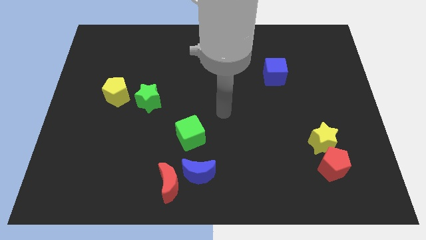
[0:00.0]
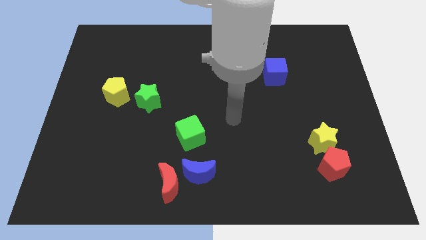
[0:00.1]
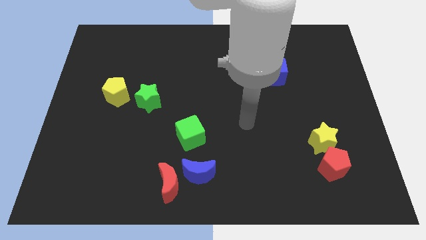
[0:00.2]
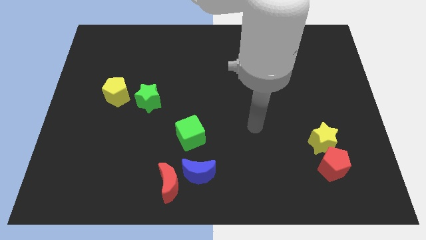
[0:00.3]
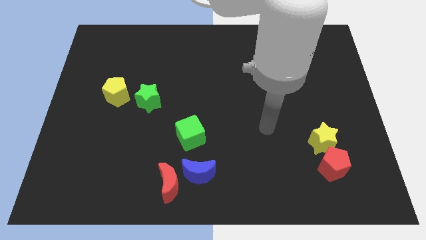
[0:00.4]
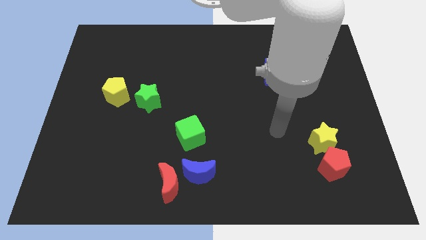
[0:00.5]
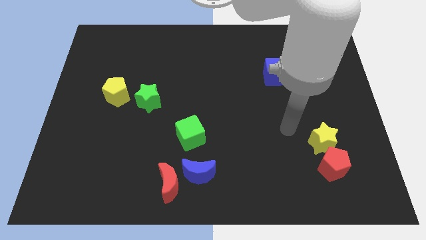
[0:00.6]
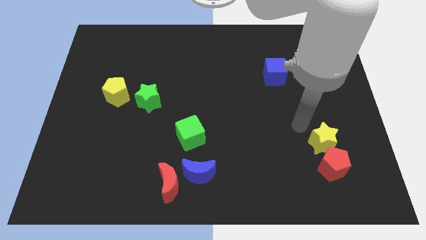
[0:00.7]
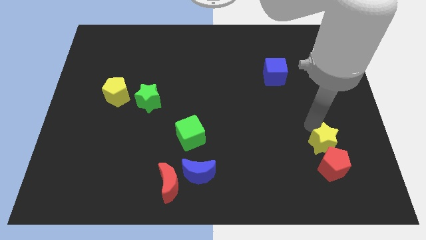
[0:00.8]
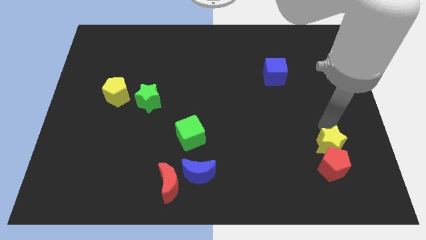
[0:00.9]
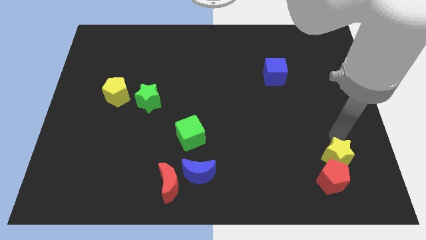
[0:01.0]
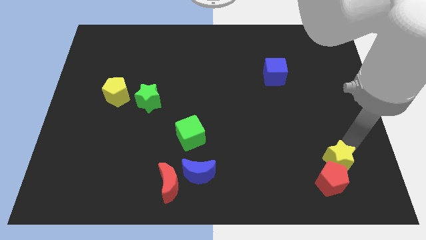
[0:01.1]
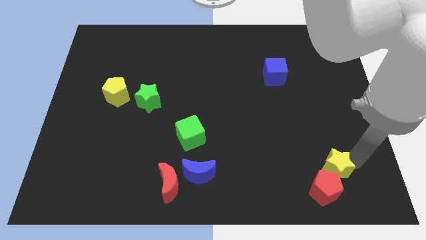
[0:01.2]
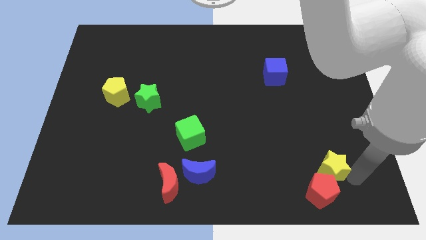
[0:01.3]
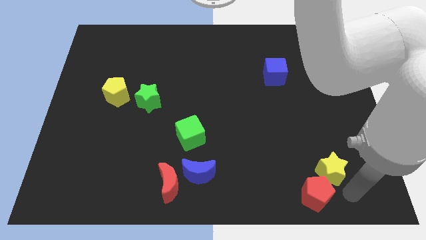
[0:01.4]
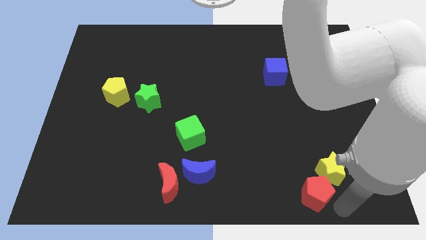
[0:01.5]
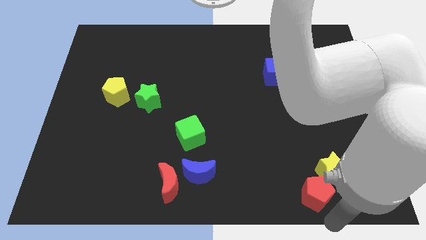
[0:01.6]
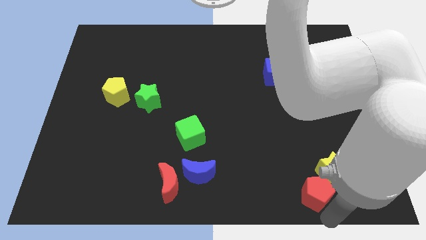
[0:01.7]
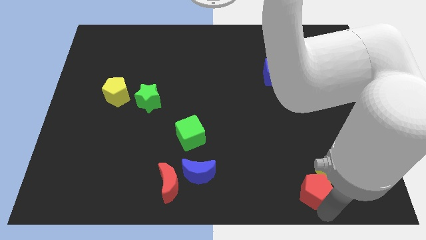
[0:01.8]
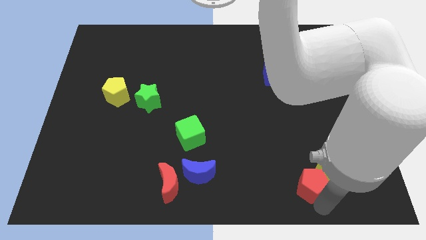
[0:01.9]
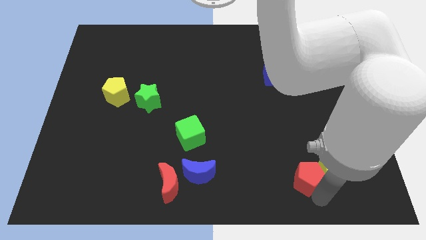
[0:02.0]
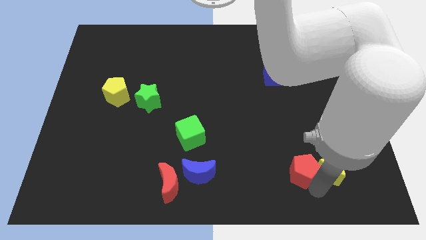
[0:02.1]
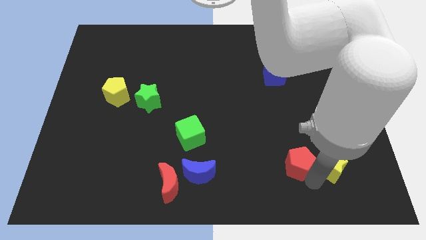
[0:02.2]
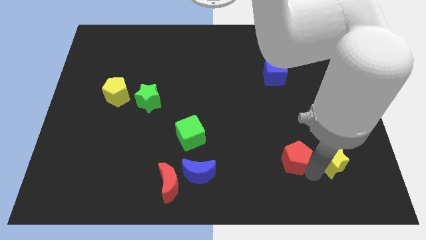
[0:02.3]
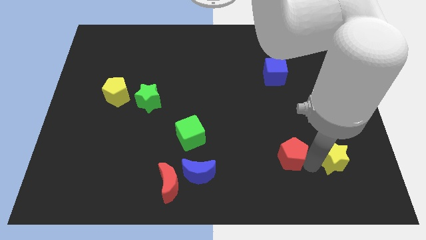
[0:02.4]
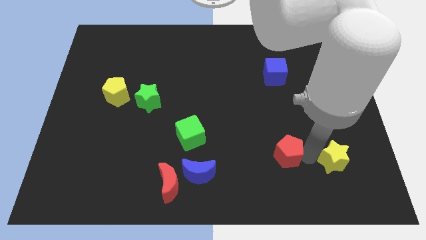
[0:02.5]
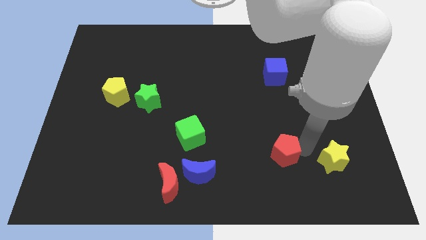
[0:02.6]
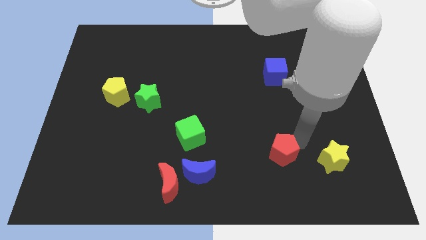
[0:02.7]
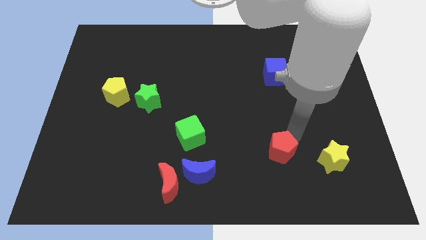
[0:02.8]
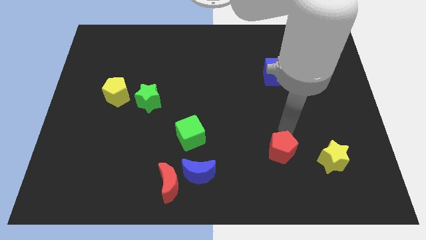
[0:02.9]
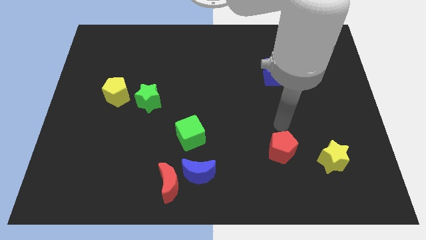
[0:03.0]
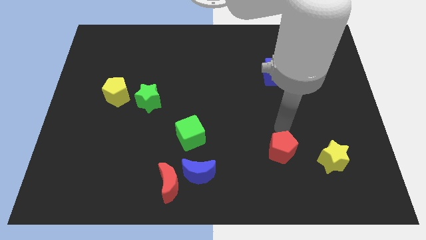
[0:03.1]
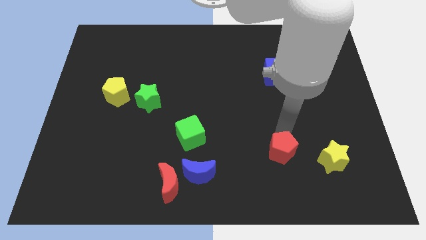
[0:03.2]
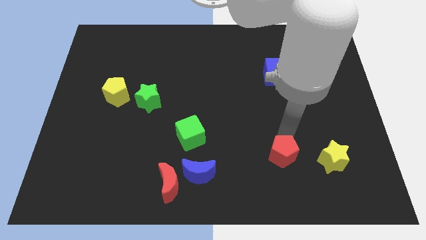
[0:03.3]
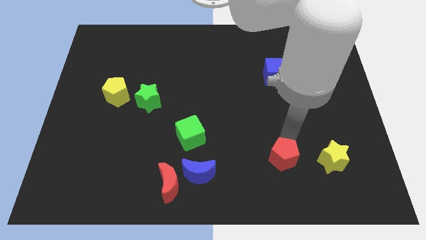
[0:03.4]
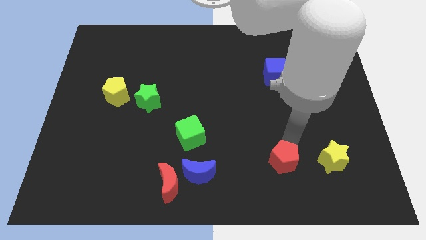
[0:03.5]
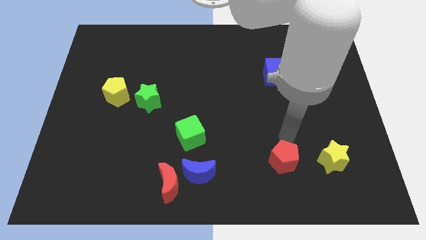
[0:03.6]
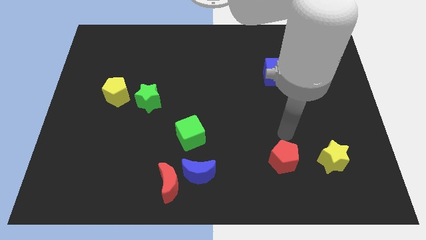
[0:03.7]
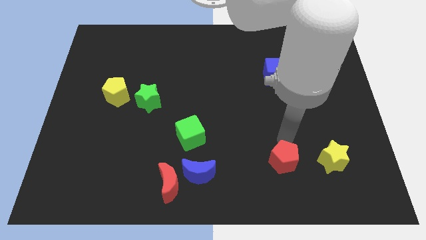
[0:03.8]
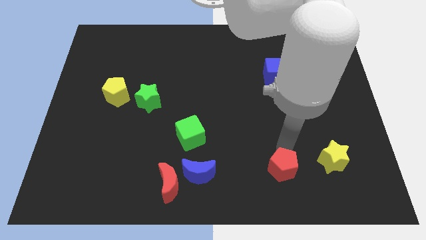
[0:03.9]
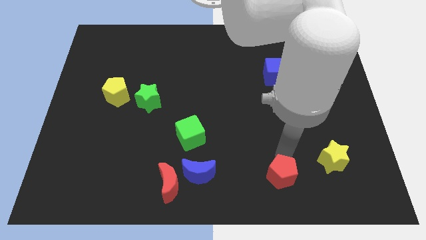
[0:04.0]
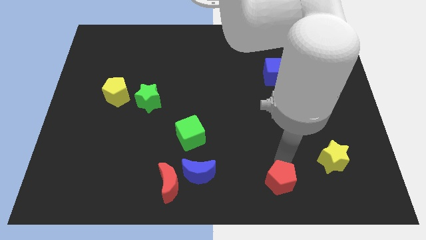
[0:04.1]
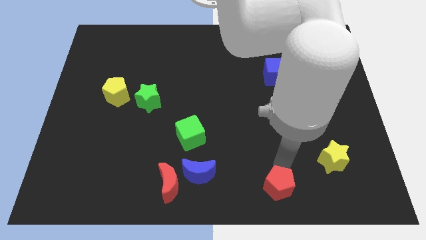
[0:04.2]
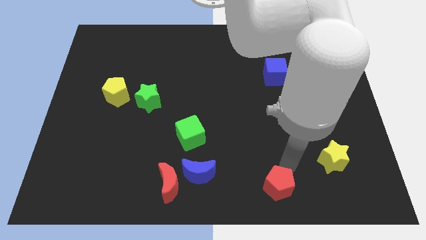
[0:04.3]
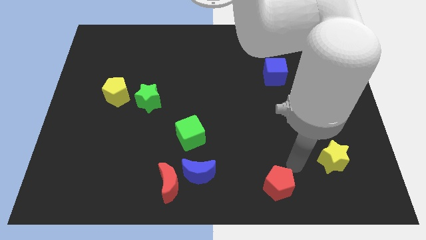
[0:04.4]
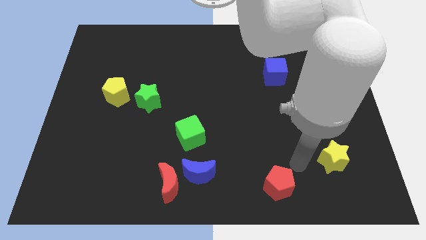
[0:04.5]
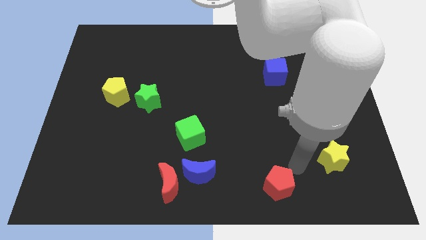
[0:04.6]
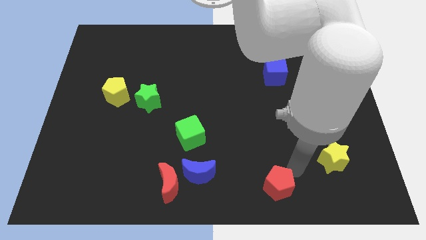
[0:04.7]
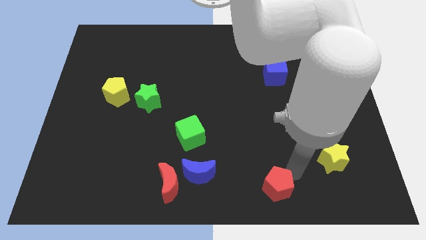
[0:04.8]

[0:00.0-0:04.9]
put the red pentagon to the bottom side

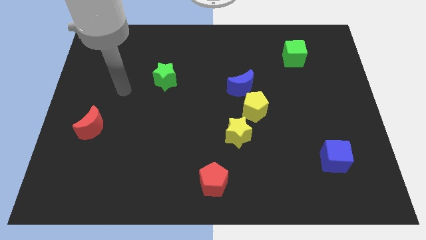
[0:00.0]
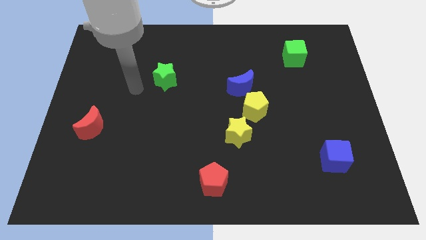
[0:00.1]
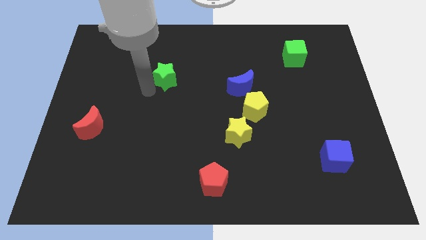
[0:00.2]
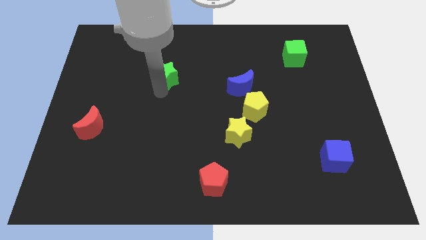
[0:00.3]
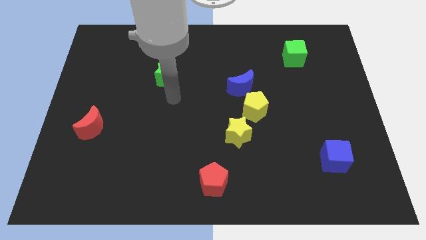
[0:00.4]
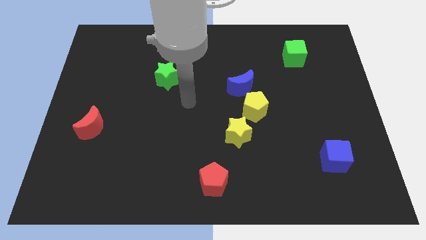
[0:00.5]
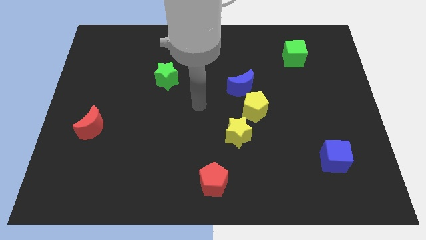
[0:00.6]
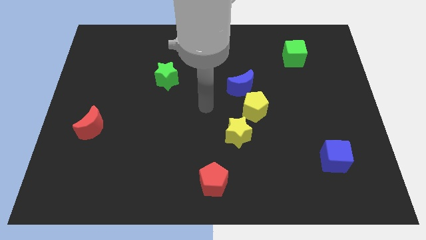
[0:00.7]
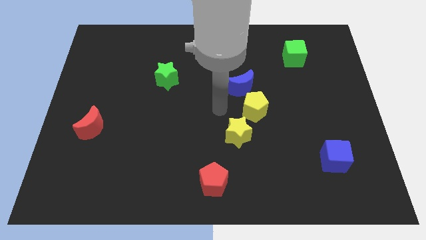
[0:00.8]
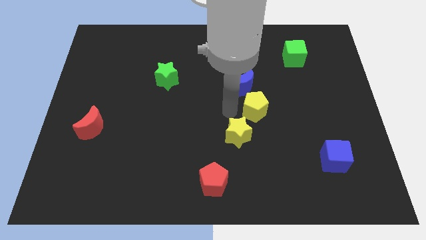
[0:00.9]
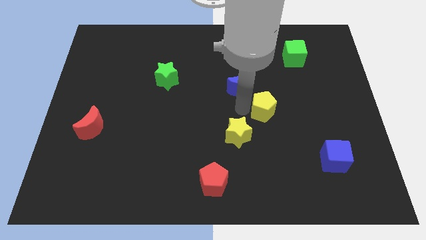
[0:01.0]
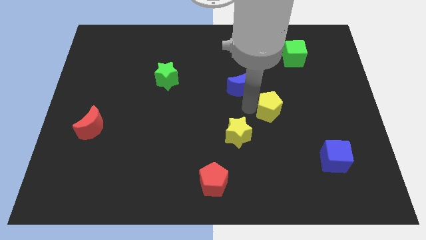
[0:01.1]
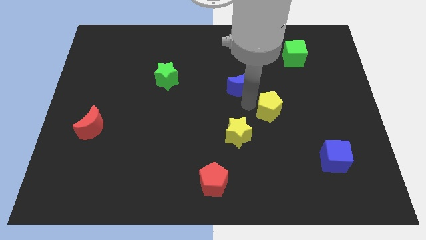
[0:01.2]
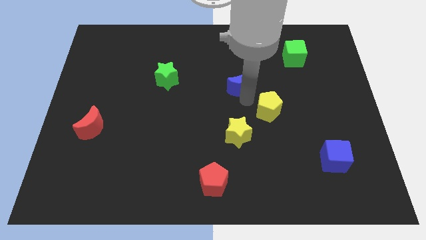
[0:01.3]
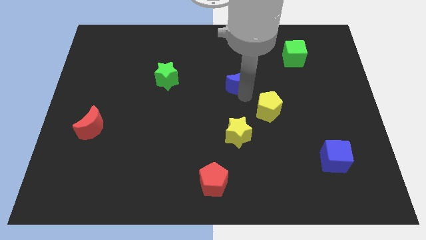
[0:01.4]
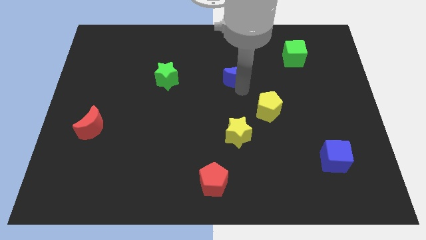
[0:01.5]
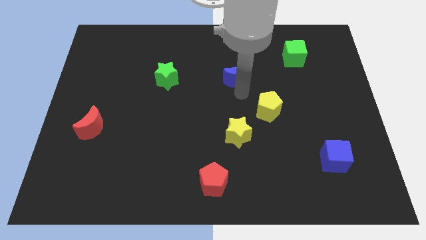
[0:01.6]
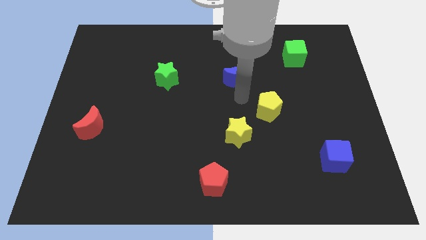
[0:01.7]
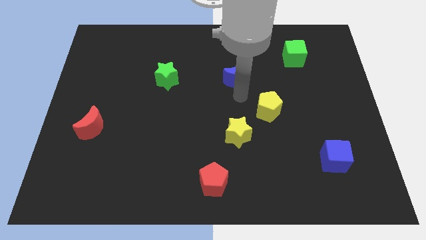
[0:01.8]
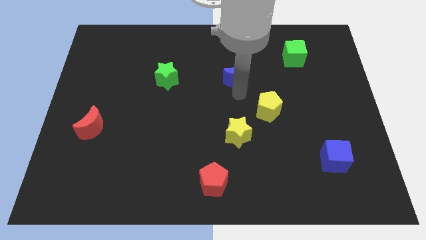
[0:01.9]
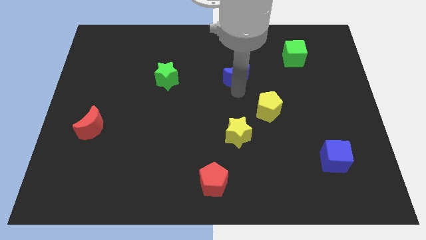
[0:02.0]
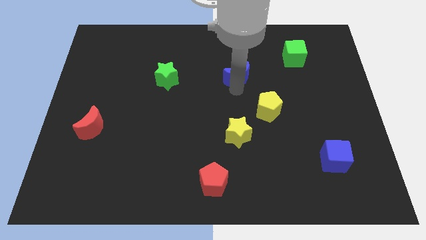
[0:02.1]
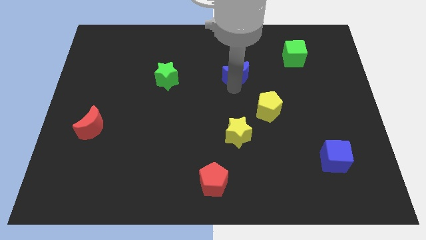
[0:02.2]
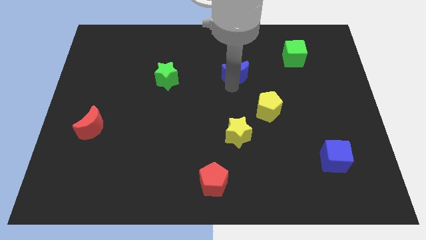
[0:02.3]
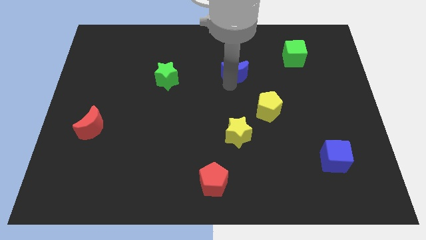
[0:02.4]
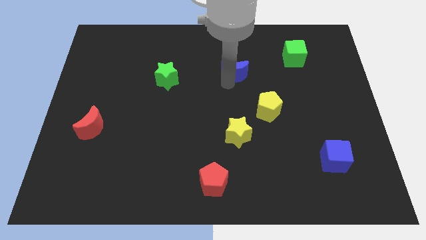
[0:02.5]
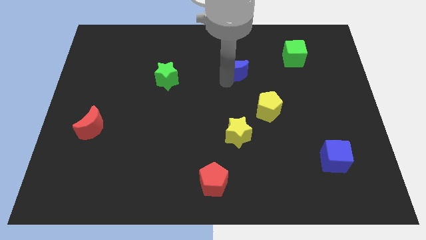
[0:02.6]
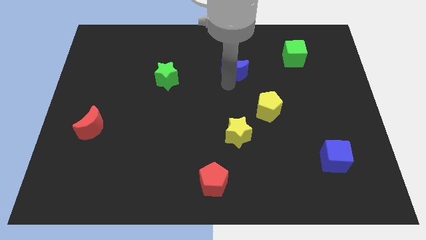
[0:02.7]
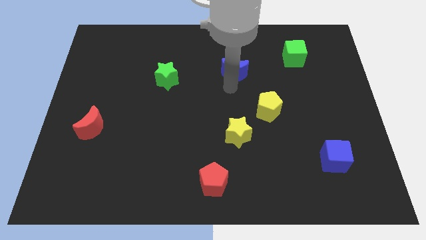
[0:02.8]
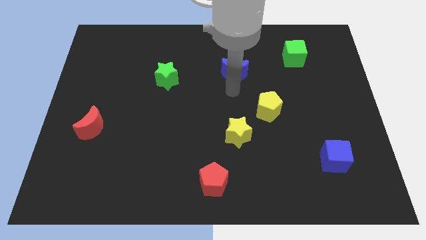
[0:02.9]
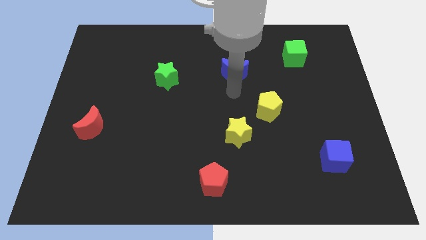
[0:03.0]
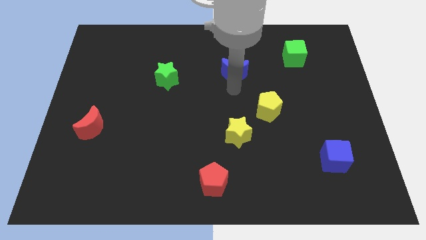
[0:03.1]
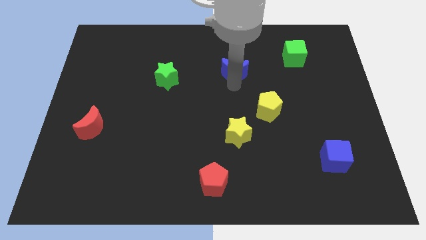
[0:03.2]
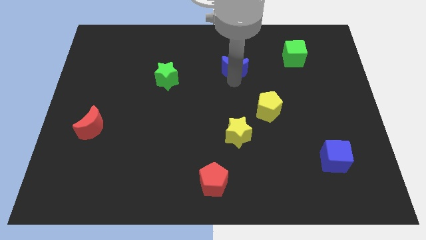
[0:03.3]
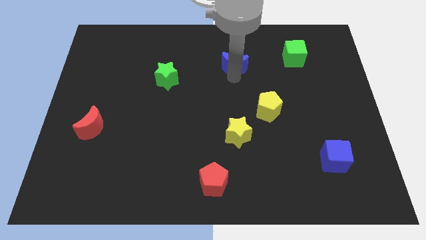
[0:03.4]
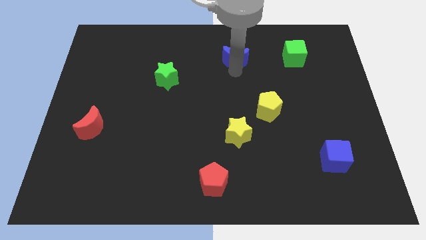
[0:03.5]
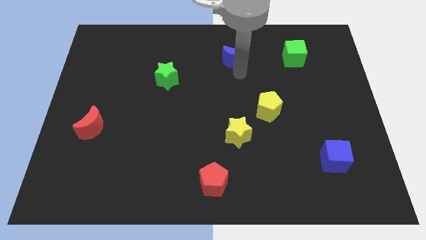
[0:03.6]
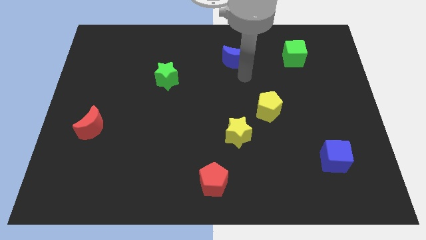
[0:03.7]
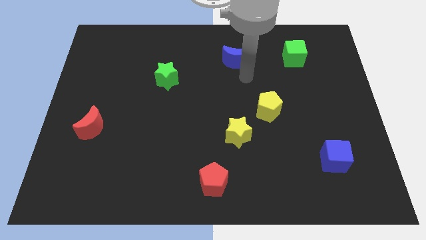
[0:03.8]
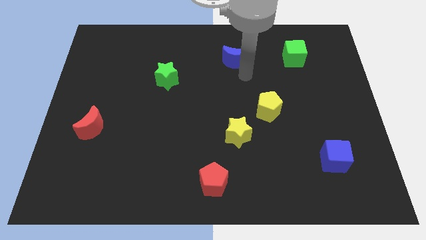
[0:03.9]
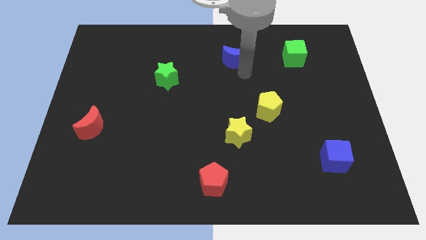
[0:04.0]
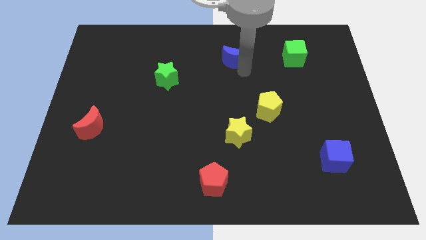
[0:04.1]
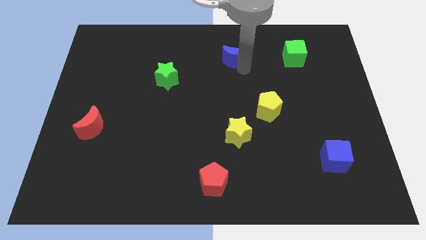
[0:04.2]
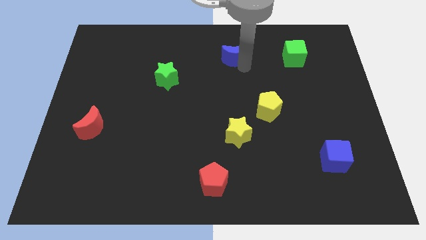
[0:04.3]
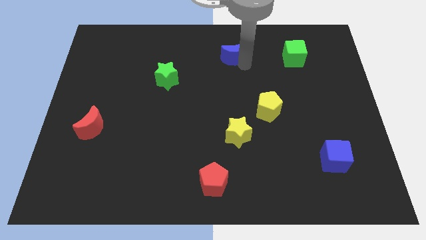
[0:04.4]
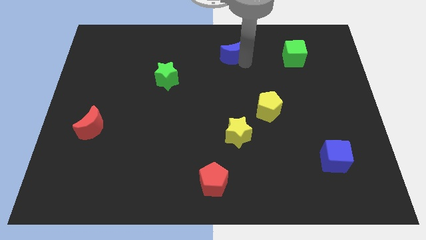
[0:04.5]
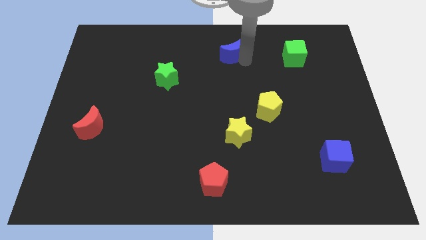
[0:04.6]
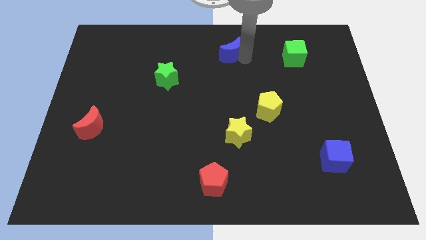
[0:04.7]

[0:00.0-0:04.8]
push the blue moon to the towards your base
